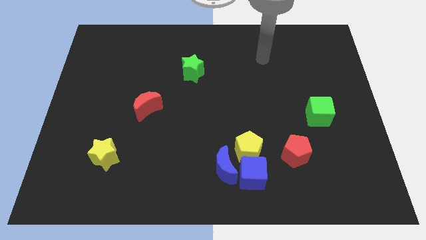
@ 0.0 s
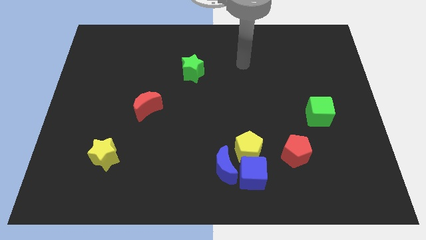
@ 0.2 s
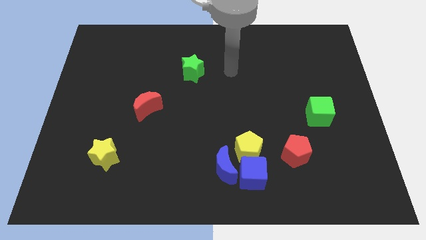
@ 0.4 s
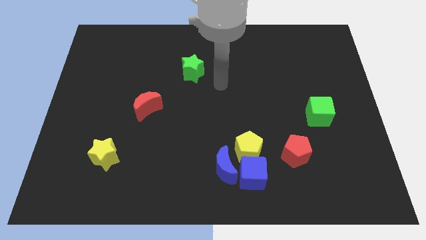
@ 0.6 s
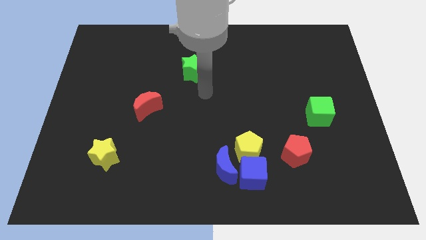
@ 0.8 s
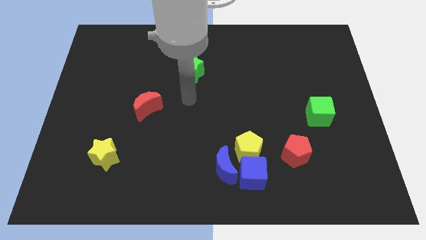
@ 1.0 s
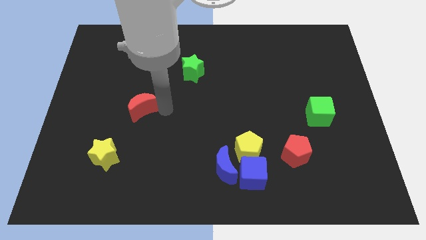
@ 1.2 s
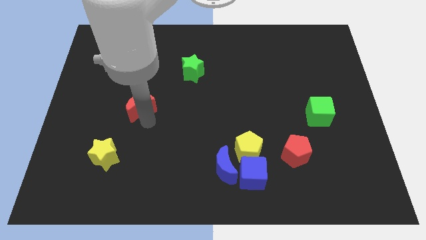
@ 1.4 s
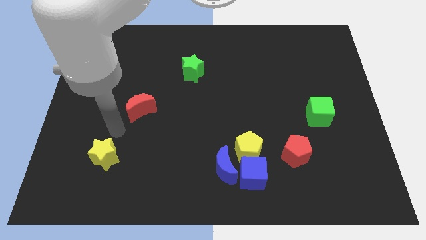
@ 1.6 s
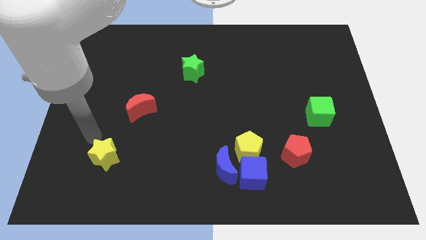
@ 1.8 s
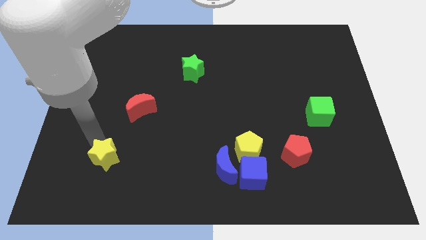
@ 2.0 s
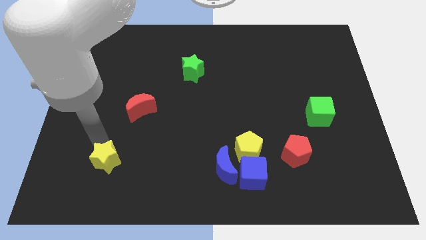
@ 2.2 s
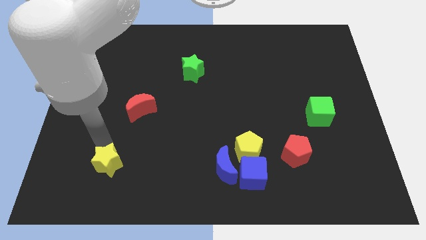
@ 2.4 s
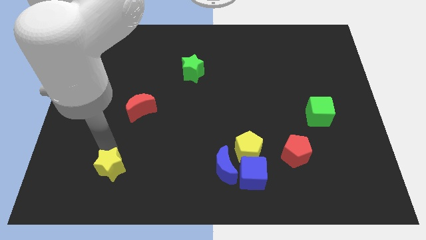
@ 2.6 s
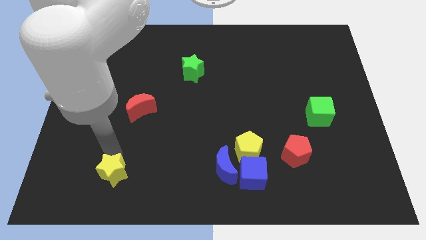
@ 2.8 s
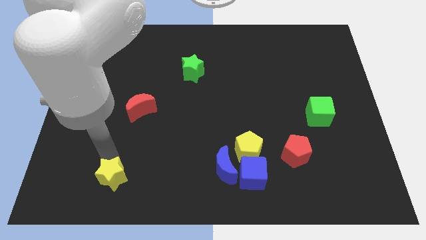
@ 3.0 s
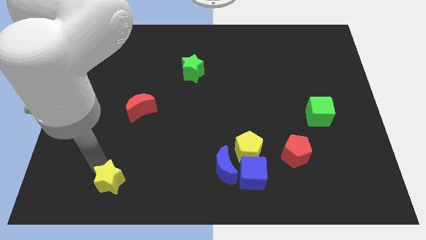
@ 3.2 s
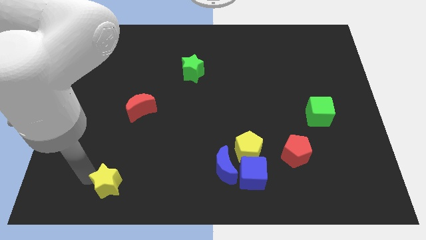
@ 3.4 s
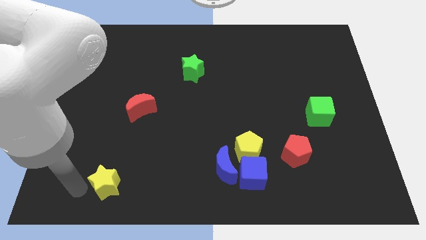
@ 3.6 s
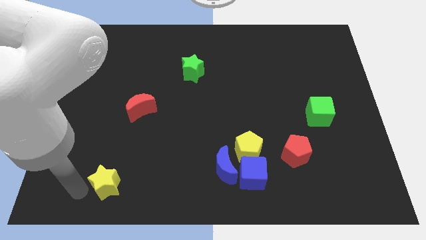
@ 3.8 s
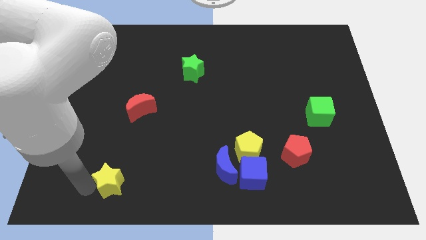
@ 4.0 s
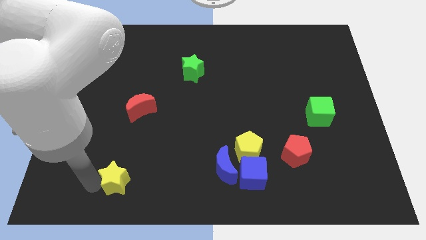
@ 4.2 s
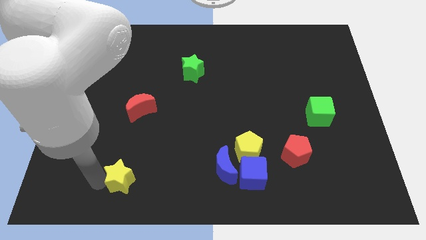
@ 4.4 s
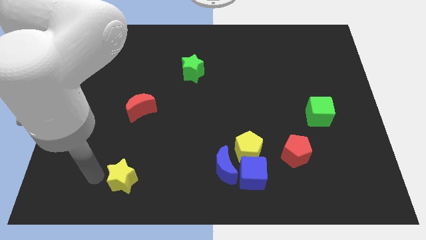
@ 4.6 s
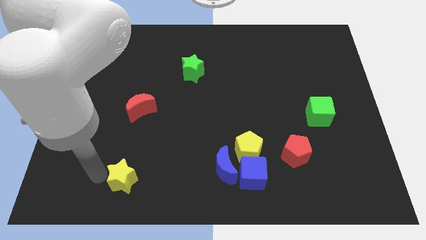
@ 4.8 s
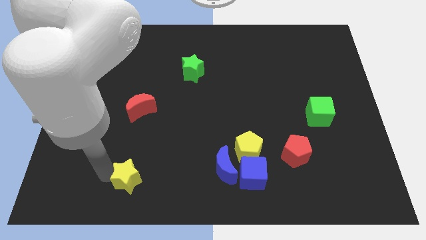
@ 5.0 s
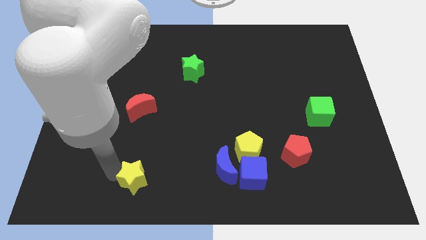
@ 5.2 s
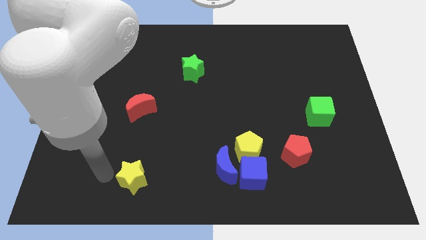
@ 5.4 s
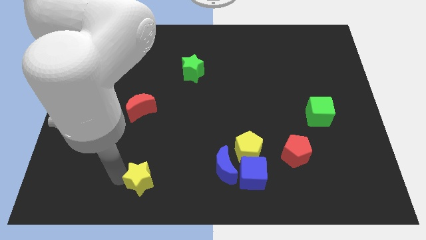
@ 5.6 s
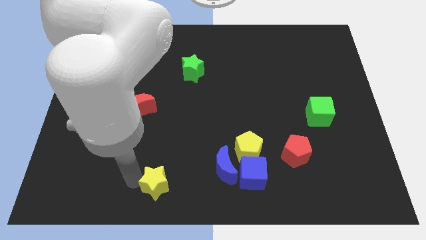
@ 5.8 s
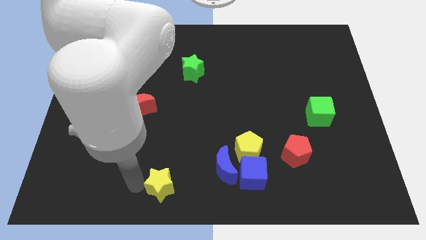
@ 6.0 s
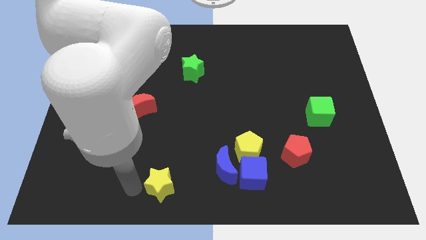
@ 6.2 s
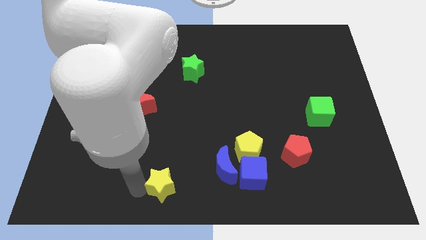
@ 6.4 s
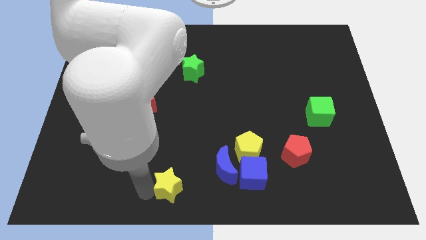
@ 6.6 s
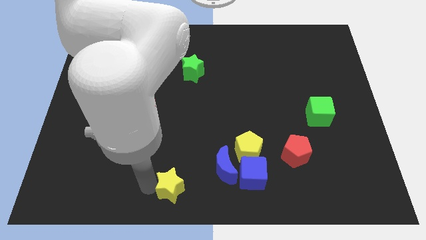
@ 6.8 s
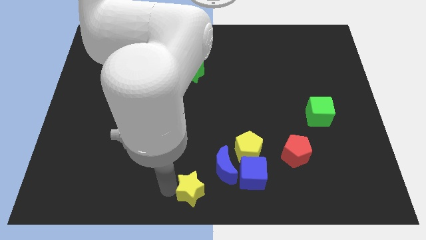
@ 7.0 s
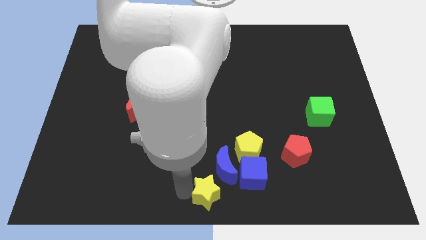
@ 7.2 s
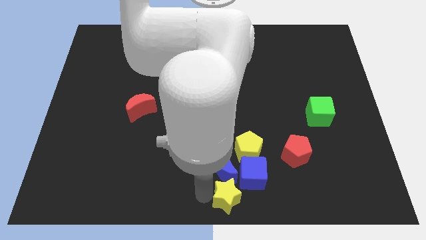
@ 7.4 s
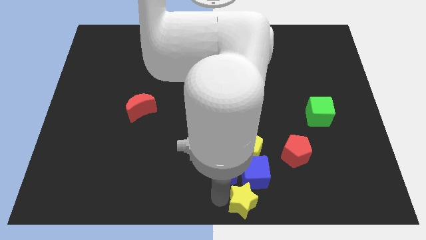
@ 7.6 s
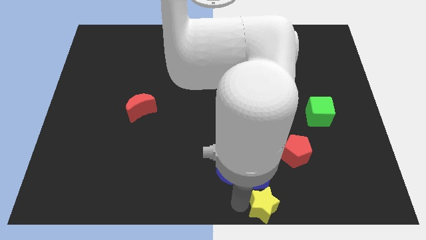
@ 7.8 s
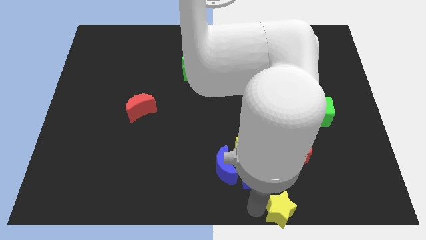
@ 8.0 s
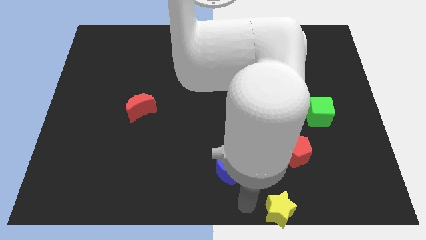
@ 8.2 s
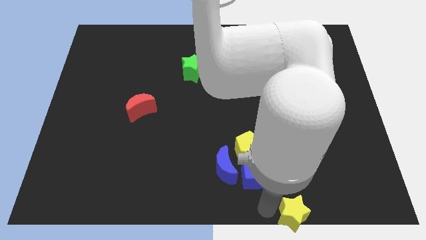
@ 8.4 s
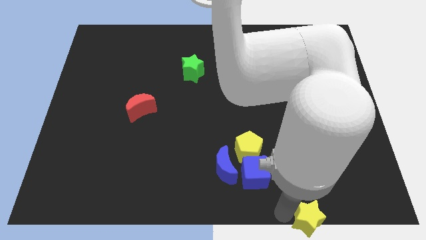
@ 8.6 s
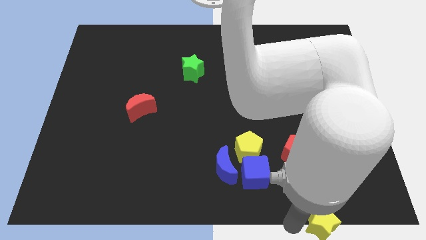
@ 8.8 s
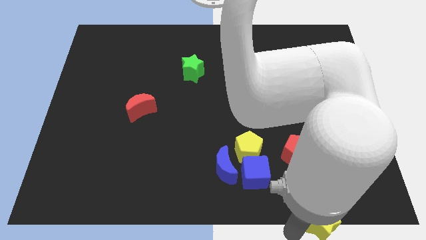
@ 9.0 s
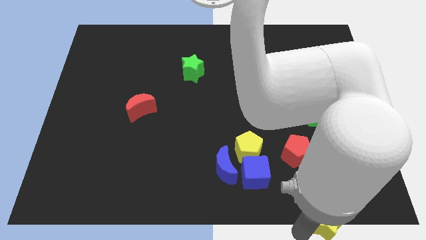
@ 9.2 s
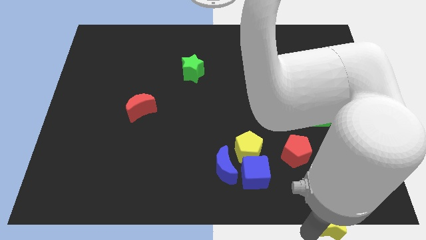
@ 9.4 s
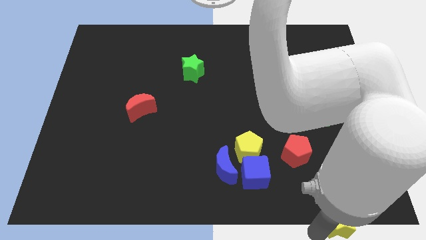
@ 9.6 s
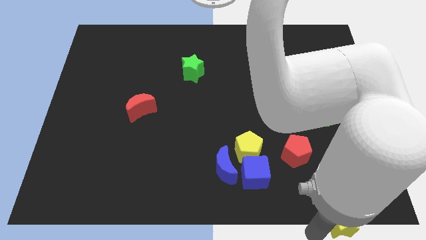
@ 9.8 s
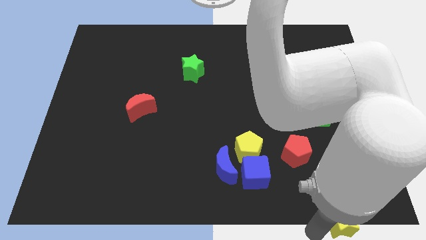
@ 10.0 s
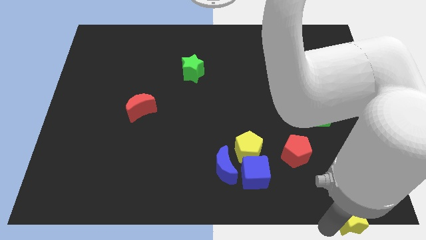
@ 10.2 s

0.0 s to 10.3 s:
put the yellow star to the bottom right corner
